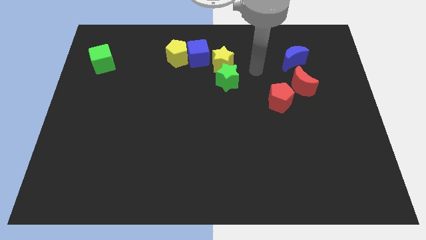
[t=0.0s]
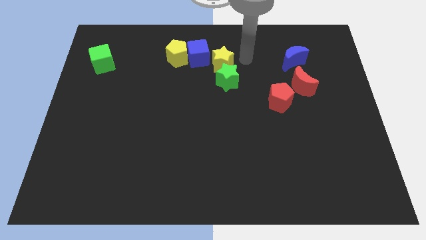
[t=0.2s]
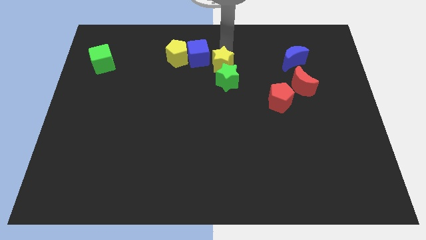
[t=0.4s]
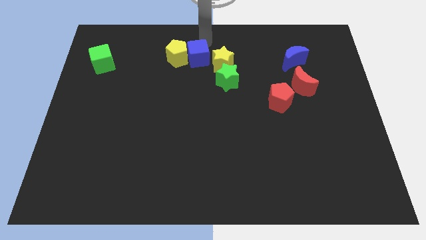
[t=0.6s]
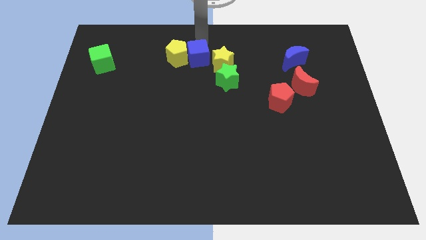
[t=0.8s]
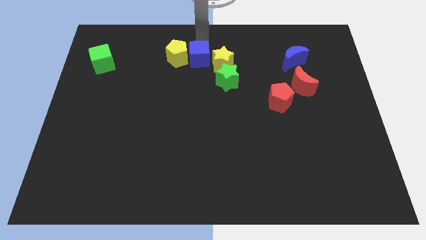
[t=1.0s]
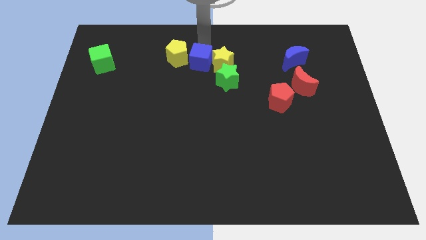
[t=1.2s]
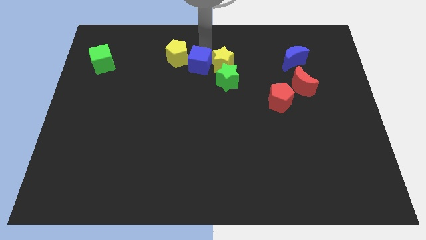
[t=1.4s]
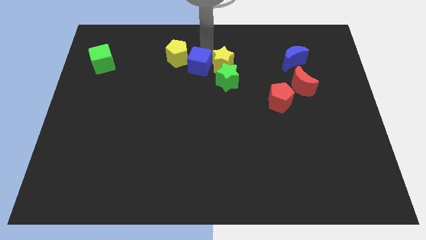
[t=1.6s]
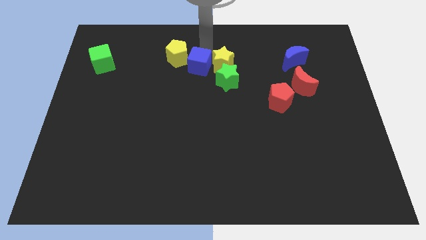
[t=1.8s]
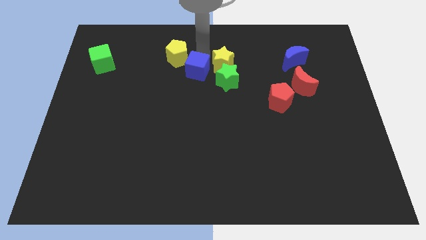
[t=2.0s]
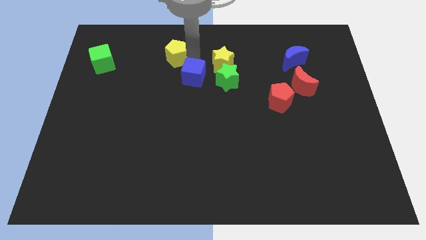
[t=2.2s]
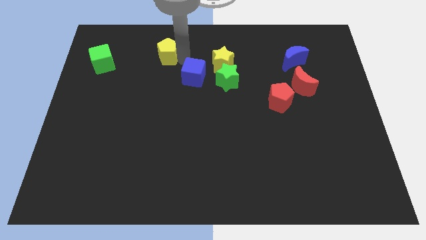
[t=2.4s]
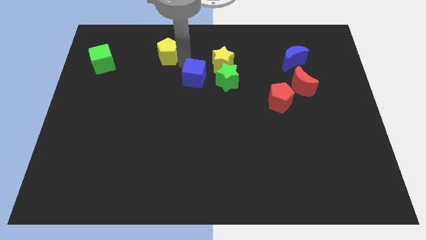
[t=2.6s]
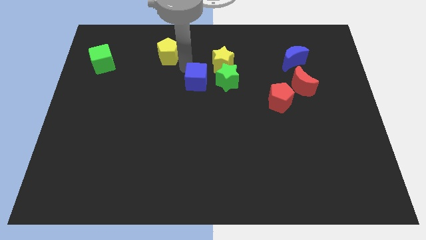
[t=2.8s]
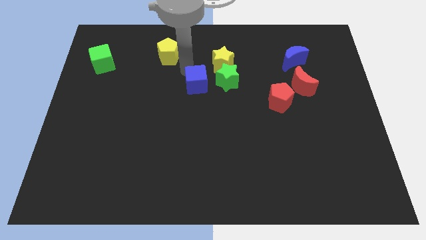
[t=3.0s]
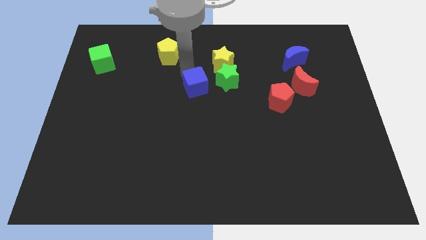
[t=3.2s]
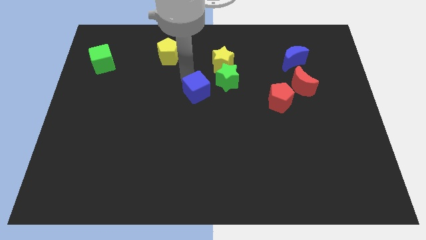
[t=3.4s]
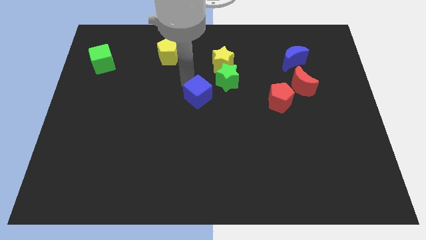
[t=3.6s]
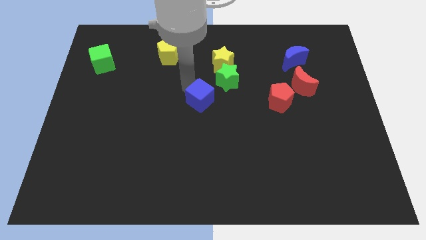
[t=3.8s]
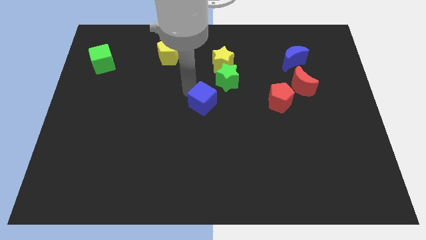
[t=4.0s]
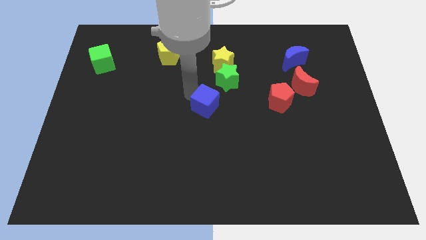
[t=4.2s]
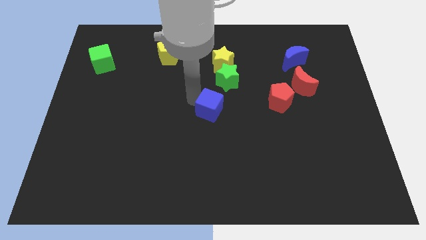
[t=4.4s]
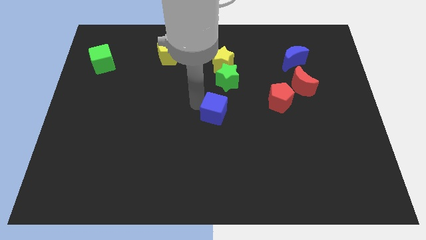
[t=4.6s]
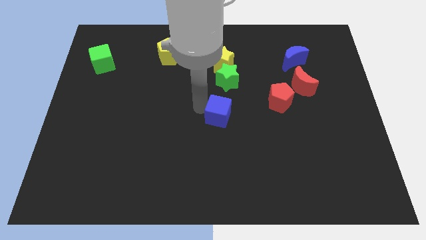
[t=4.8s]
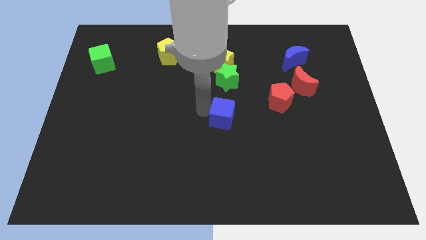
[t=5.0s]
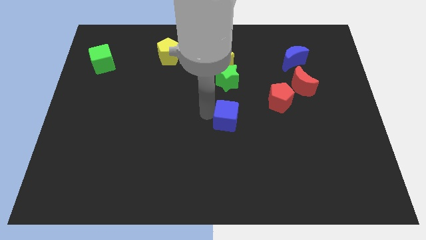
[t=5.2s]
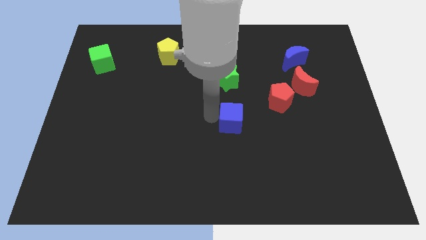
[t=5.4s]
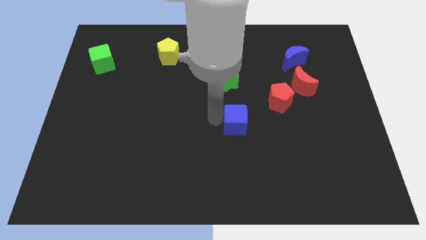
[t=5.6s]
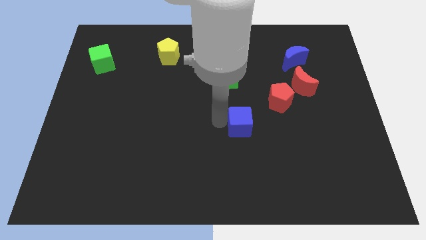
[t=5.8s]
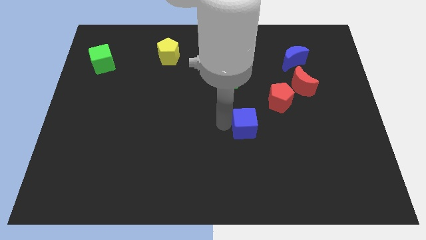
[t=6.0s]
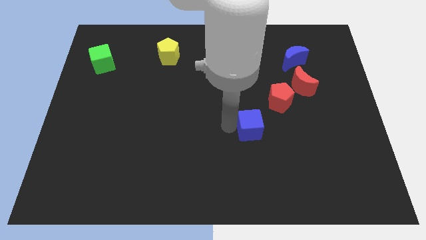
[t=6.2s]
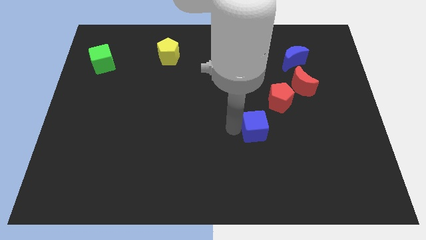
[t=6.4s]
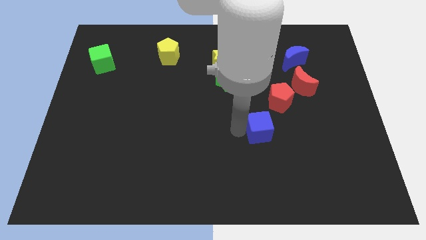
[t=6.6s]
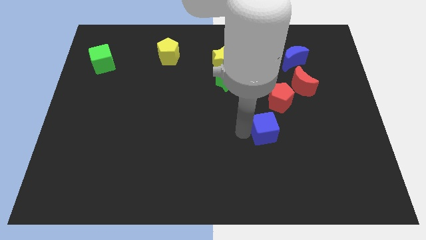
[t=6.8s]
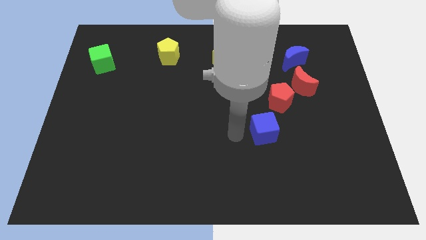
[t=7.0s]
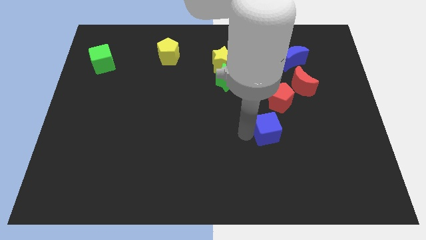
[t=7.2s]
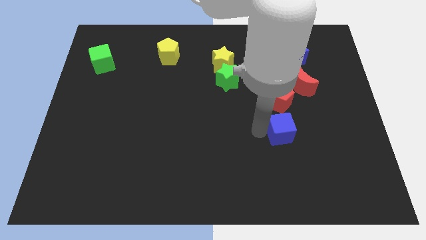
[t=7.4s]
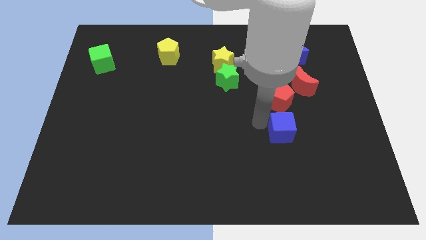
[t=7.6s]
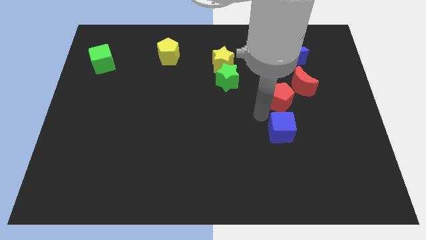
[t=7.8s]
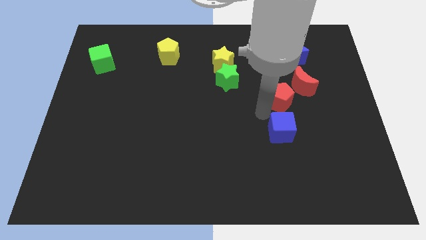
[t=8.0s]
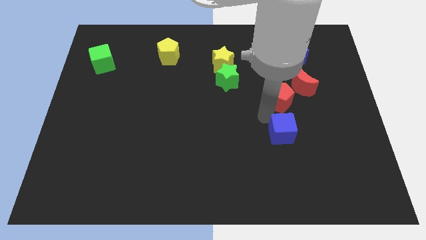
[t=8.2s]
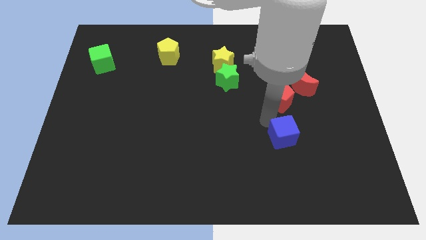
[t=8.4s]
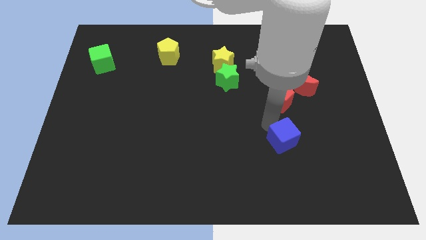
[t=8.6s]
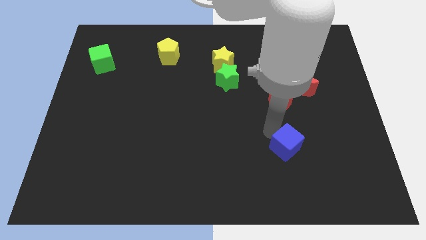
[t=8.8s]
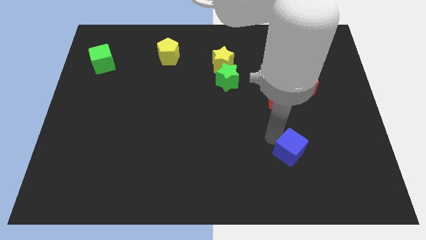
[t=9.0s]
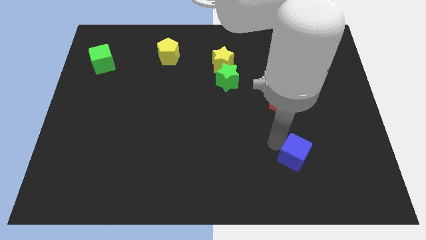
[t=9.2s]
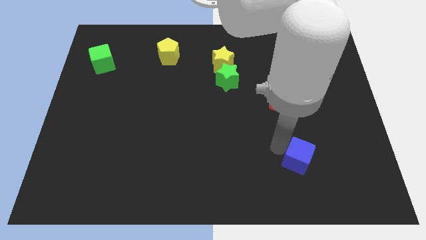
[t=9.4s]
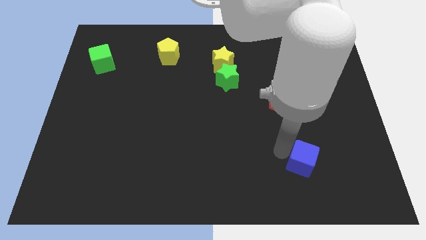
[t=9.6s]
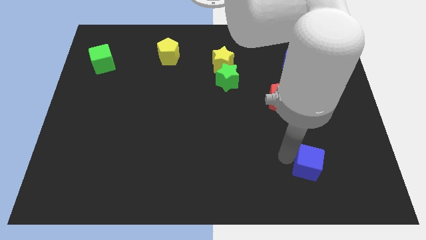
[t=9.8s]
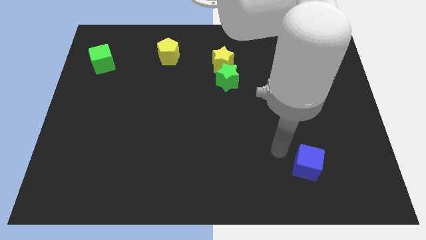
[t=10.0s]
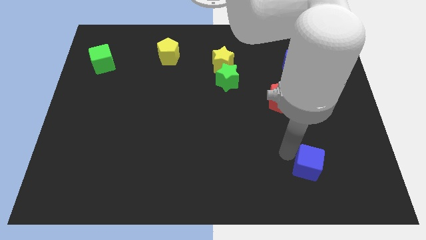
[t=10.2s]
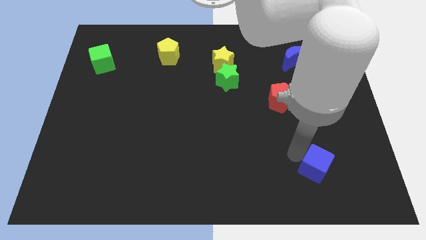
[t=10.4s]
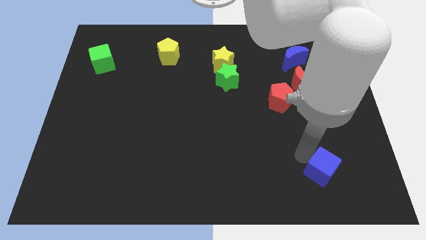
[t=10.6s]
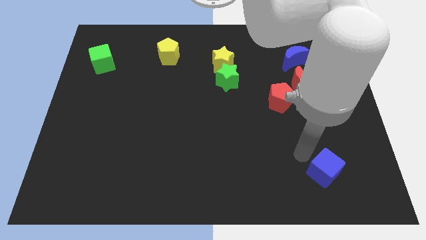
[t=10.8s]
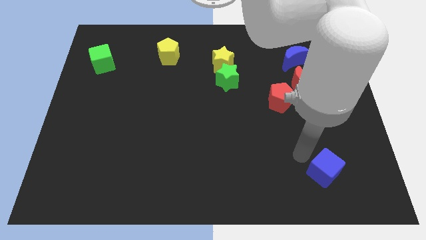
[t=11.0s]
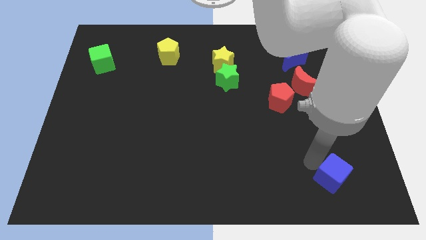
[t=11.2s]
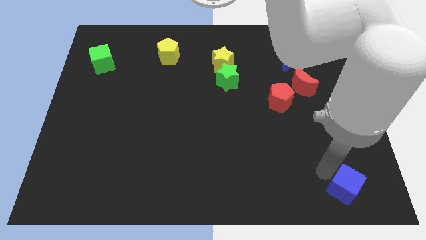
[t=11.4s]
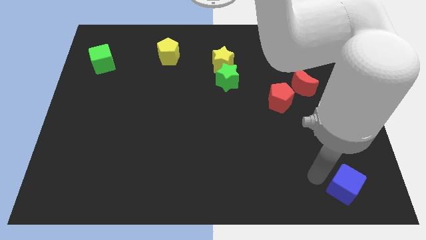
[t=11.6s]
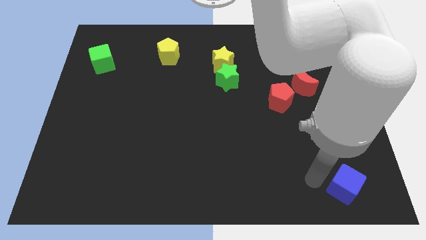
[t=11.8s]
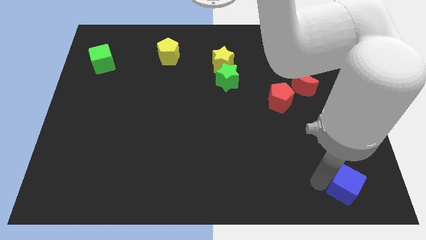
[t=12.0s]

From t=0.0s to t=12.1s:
slide the blue cube to the bottom right
